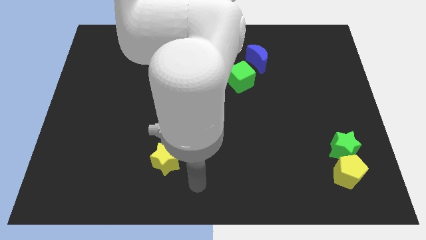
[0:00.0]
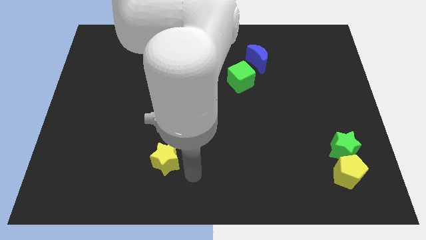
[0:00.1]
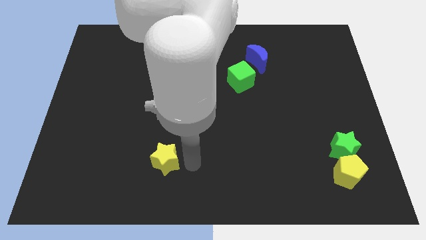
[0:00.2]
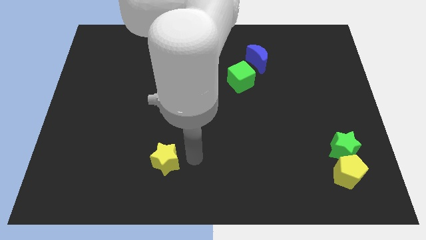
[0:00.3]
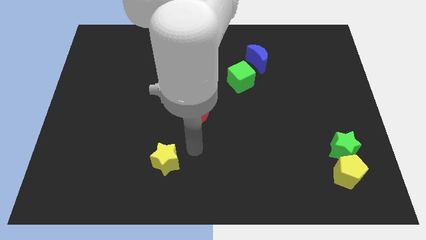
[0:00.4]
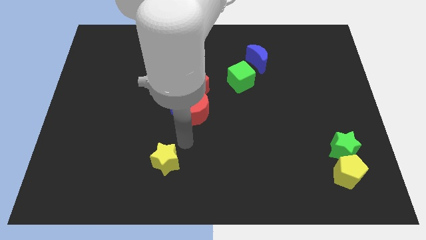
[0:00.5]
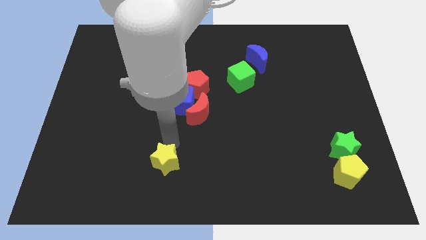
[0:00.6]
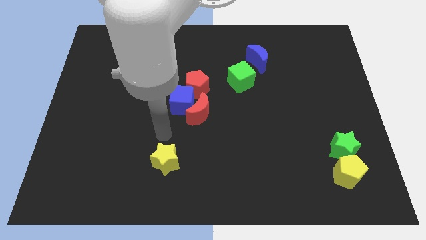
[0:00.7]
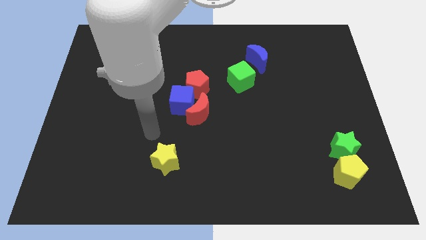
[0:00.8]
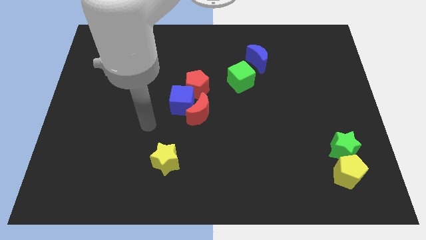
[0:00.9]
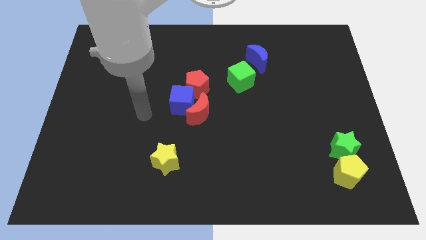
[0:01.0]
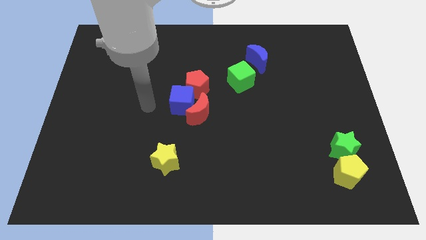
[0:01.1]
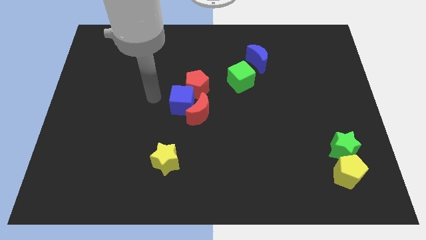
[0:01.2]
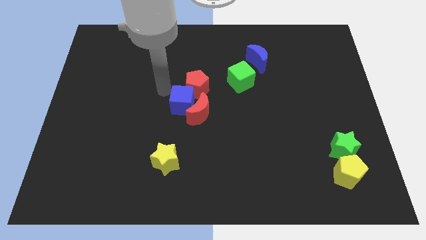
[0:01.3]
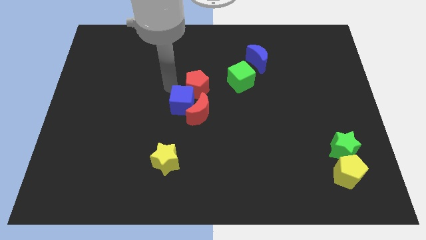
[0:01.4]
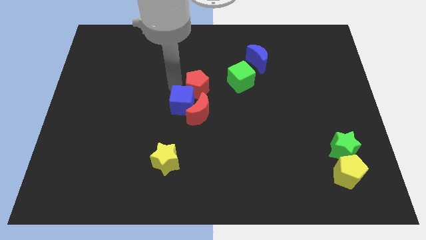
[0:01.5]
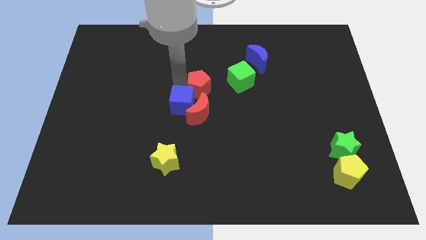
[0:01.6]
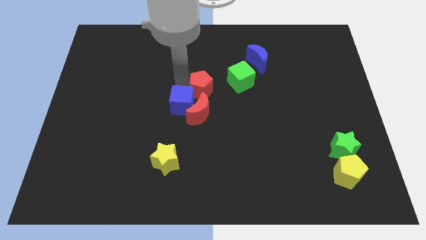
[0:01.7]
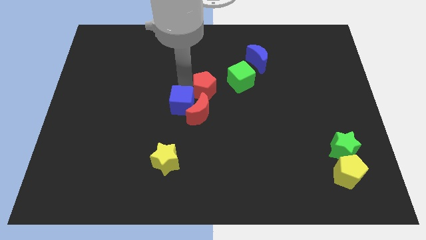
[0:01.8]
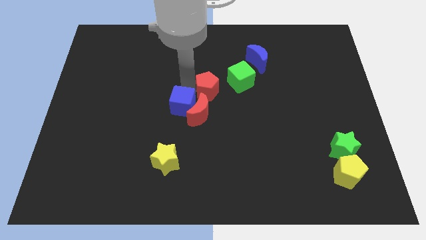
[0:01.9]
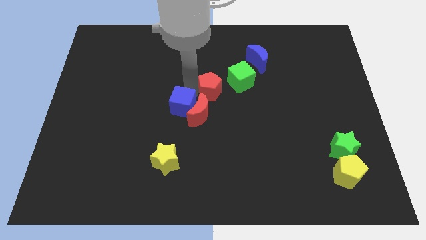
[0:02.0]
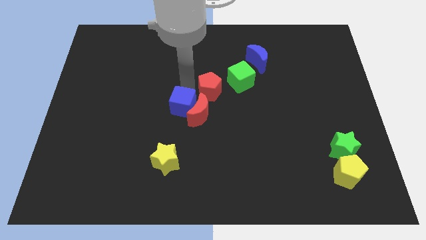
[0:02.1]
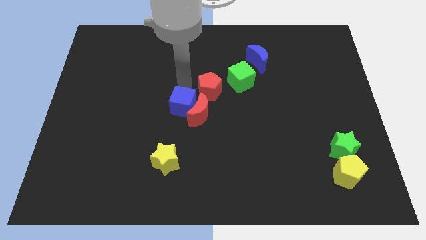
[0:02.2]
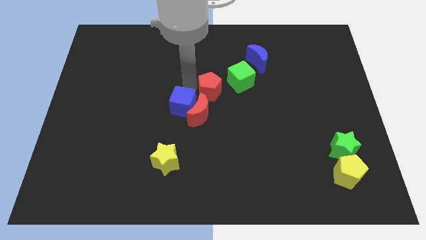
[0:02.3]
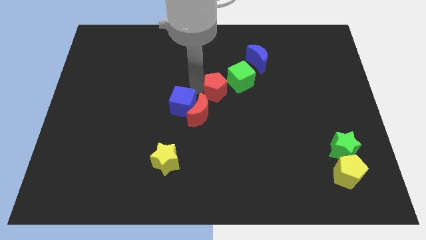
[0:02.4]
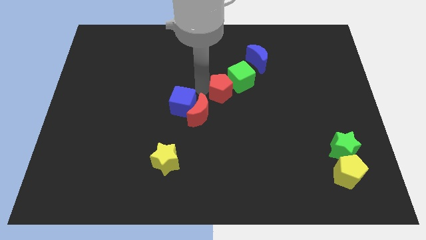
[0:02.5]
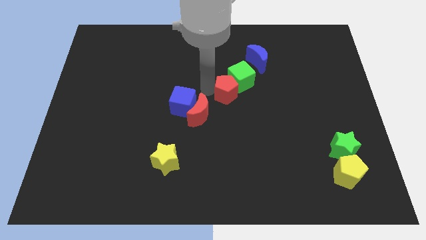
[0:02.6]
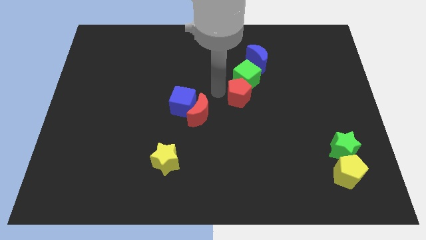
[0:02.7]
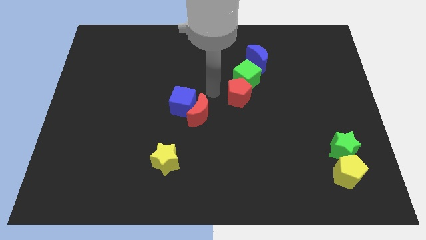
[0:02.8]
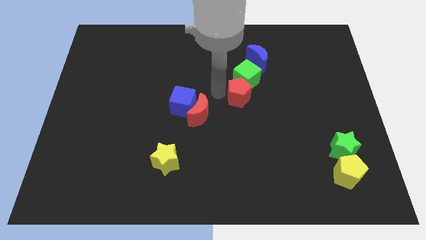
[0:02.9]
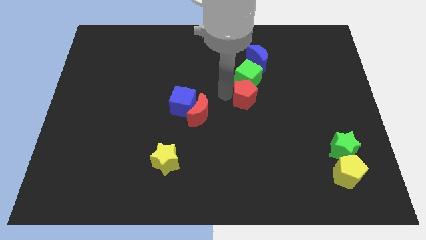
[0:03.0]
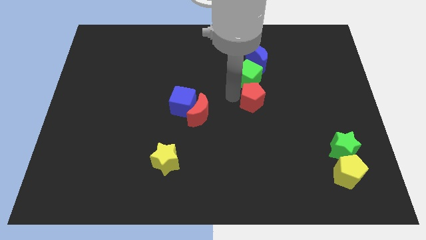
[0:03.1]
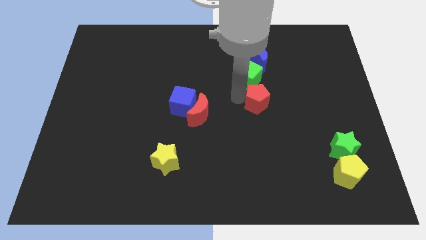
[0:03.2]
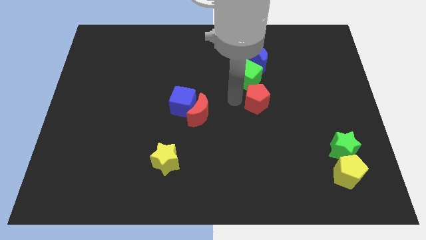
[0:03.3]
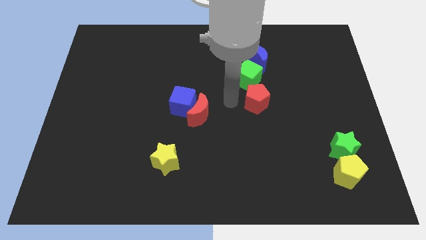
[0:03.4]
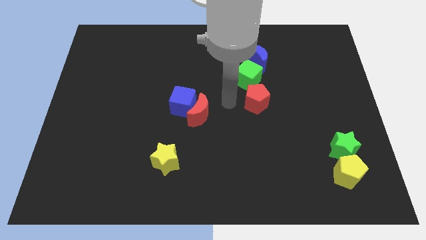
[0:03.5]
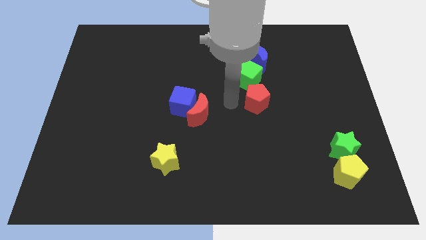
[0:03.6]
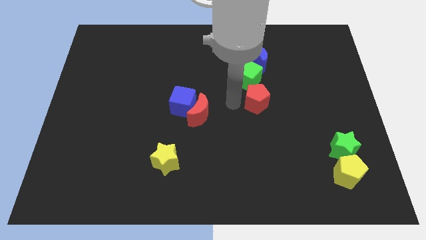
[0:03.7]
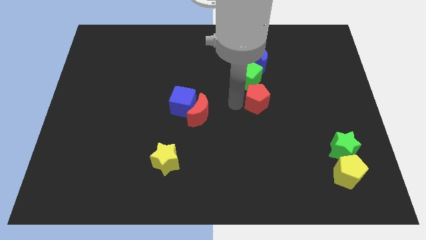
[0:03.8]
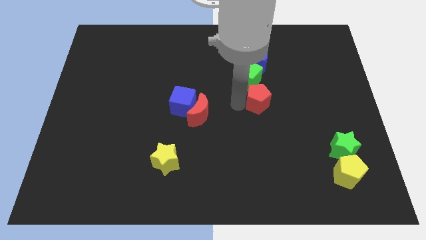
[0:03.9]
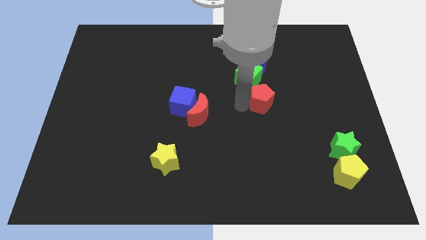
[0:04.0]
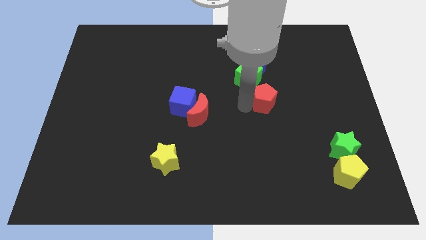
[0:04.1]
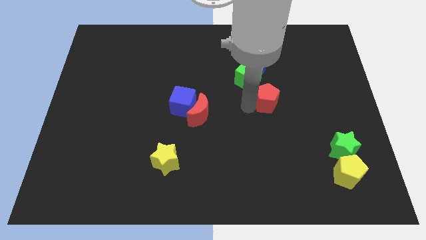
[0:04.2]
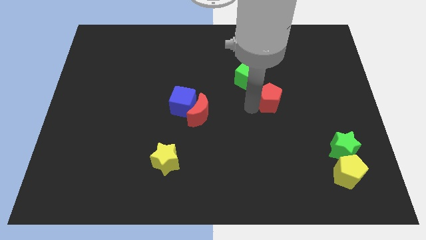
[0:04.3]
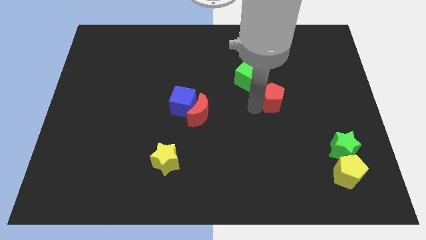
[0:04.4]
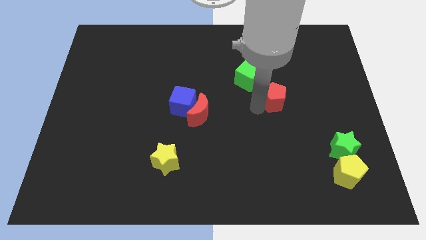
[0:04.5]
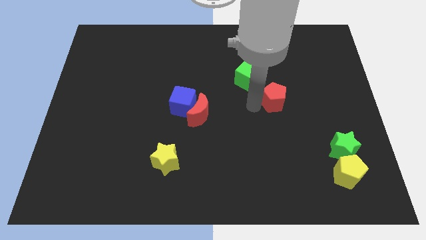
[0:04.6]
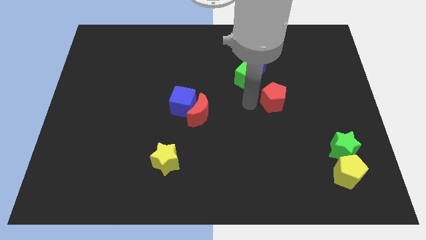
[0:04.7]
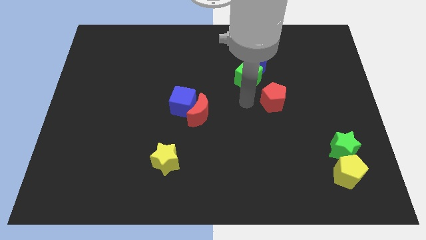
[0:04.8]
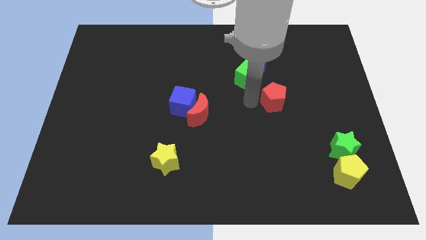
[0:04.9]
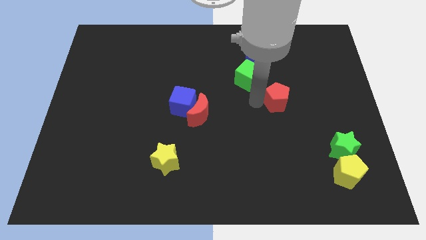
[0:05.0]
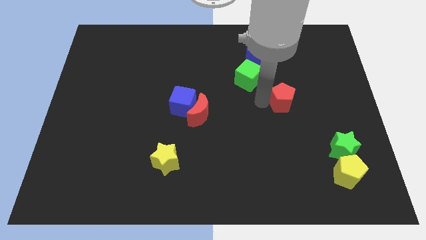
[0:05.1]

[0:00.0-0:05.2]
push the red pentagon to the right

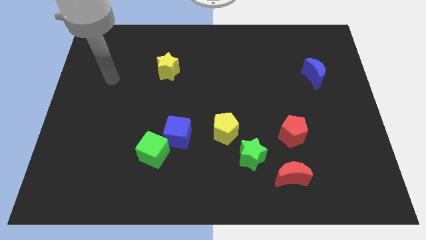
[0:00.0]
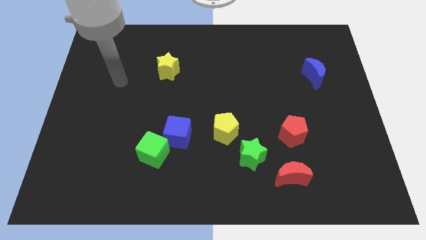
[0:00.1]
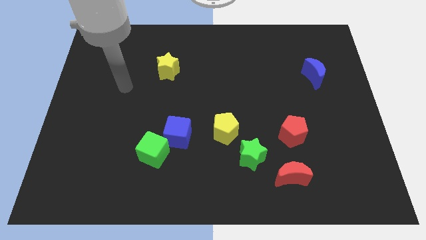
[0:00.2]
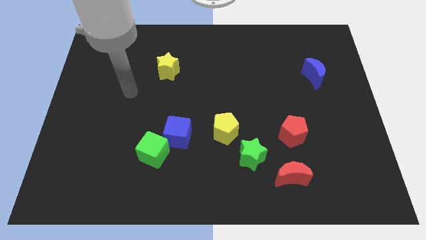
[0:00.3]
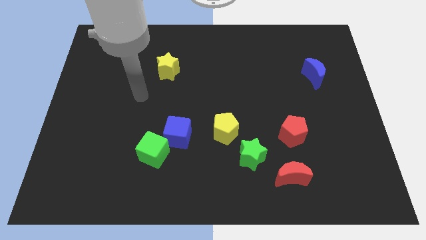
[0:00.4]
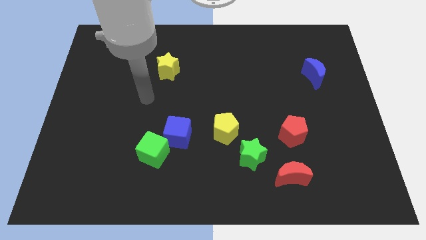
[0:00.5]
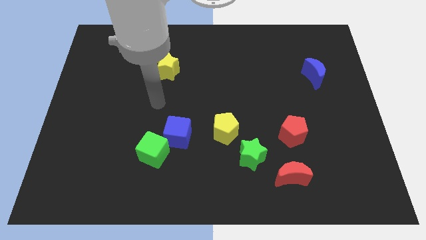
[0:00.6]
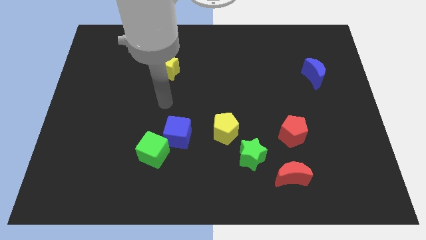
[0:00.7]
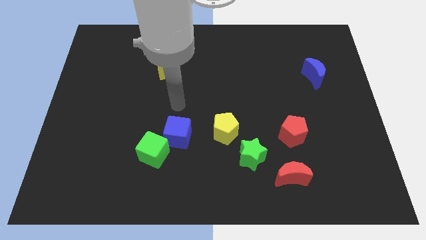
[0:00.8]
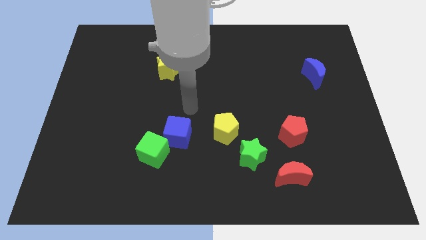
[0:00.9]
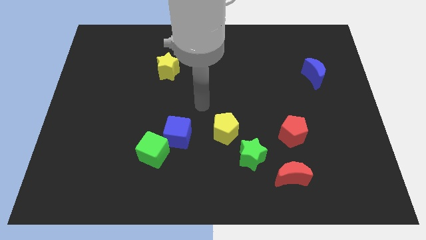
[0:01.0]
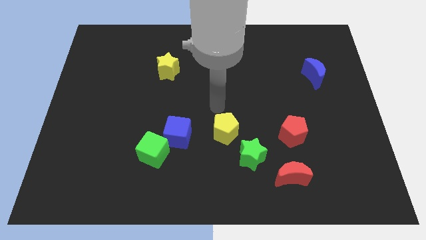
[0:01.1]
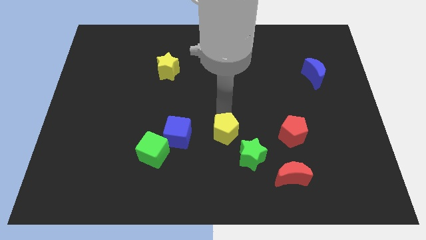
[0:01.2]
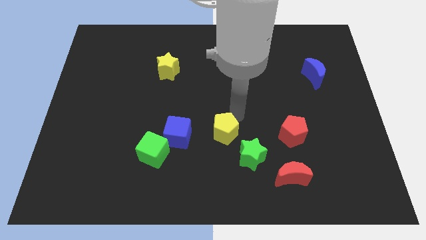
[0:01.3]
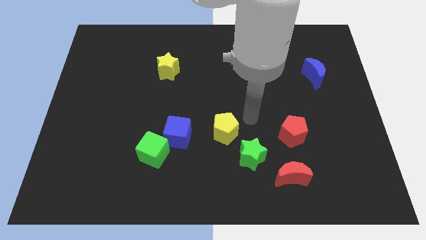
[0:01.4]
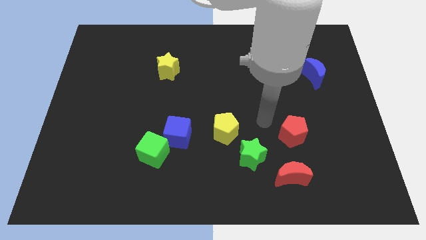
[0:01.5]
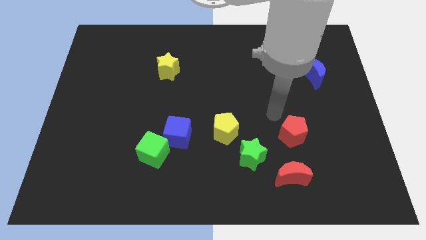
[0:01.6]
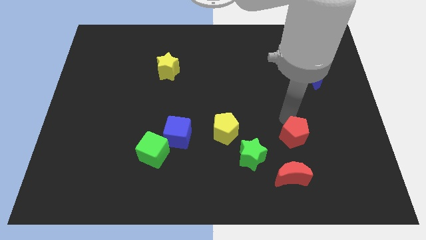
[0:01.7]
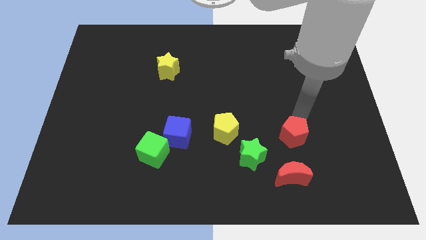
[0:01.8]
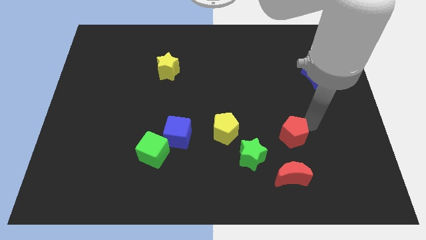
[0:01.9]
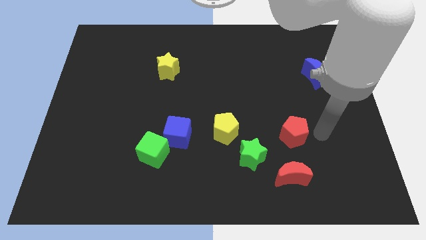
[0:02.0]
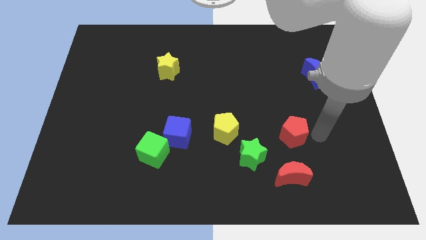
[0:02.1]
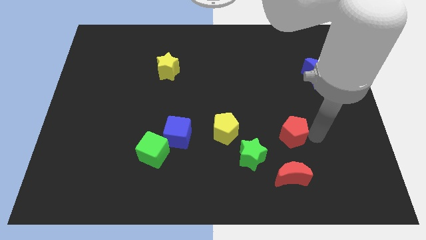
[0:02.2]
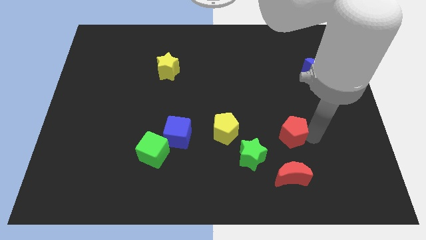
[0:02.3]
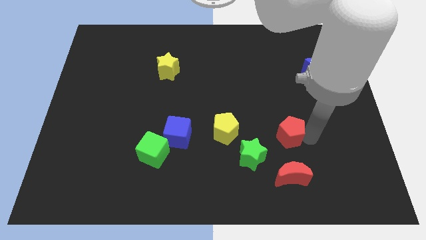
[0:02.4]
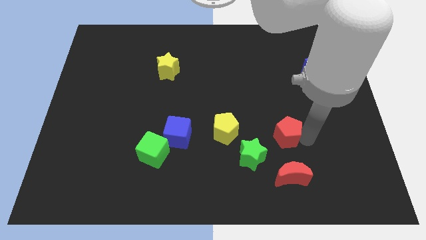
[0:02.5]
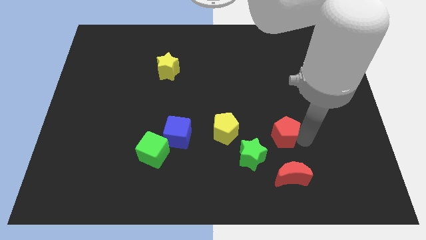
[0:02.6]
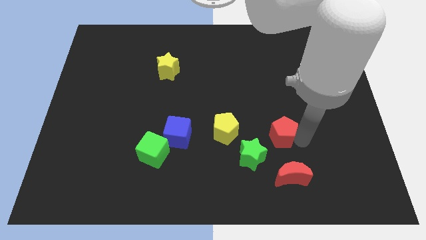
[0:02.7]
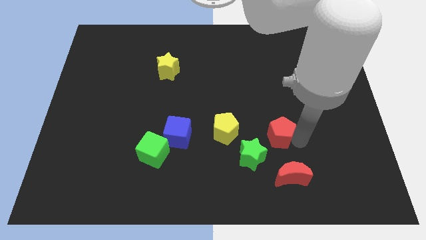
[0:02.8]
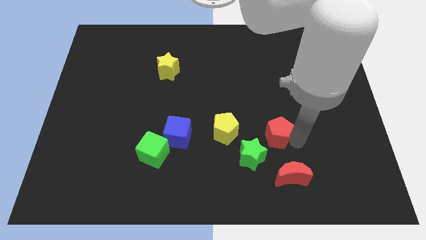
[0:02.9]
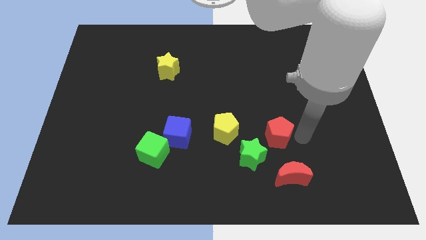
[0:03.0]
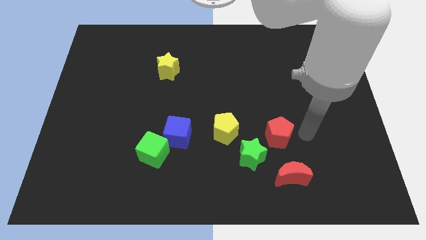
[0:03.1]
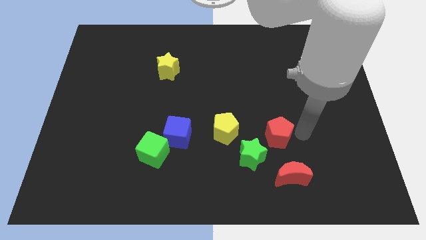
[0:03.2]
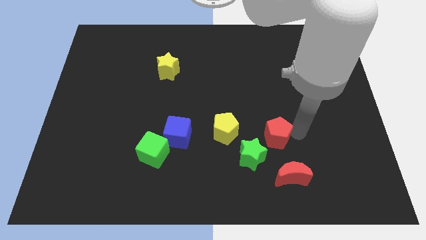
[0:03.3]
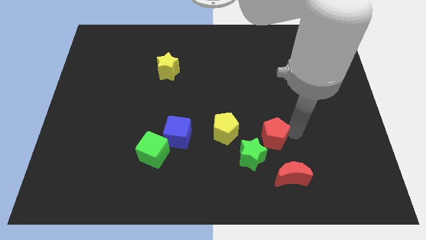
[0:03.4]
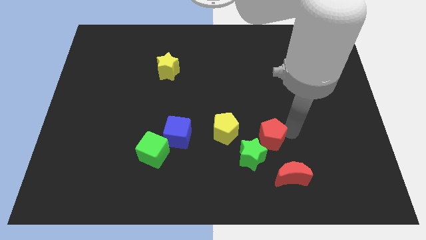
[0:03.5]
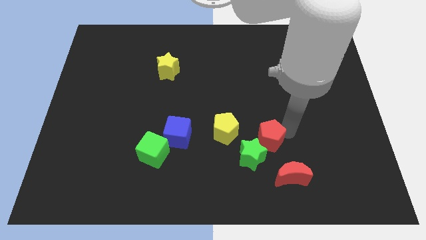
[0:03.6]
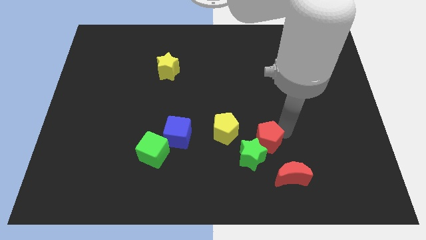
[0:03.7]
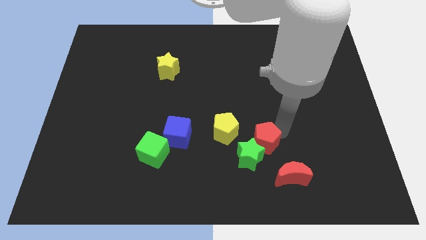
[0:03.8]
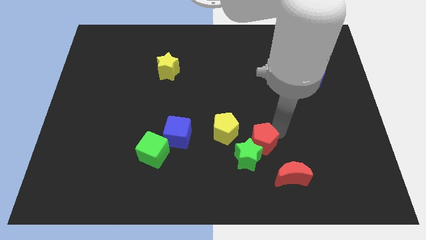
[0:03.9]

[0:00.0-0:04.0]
move the red pentagon to the left slightly
